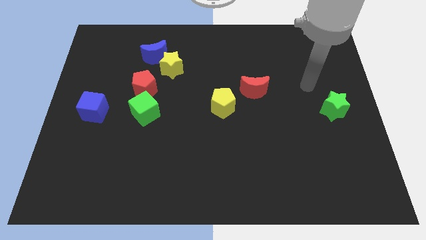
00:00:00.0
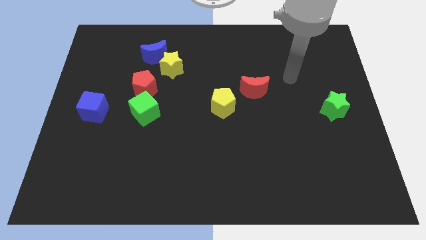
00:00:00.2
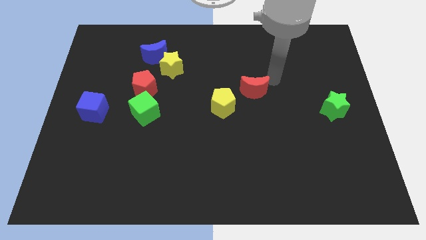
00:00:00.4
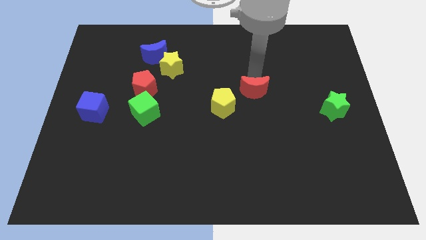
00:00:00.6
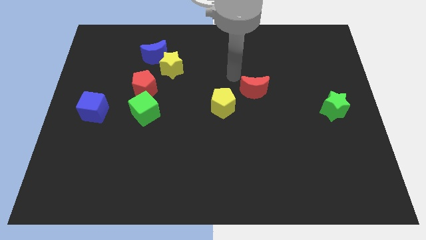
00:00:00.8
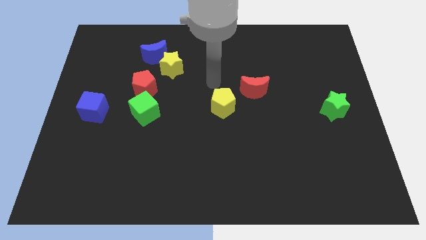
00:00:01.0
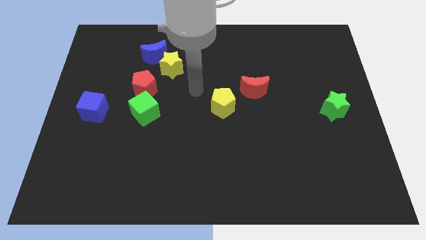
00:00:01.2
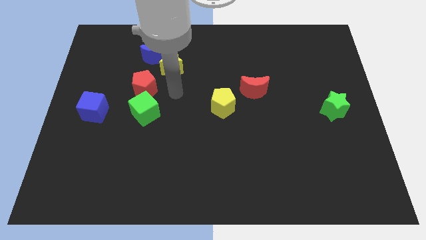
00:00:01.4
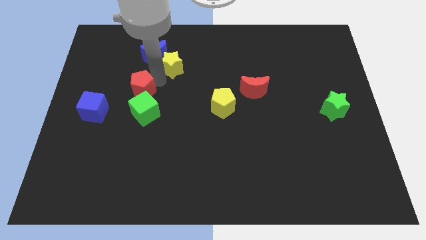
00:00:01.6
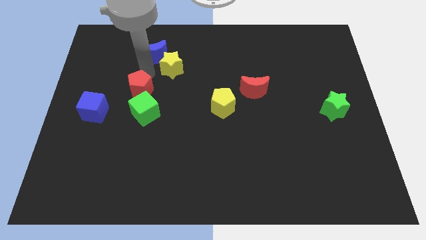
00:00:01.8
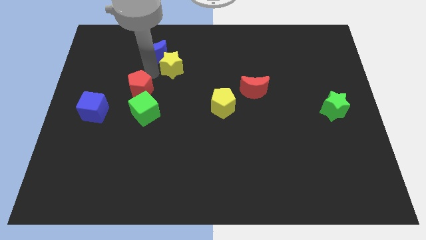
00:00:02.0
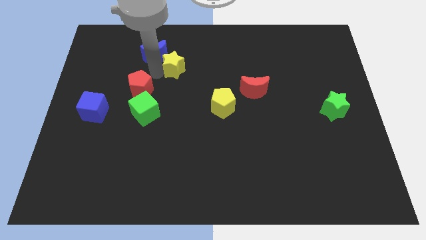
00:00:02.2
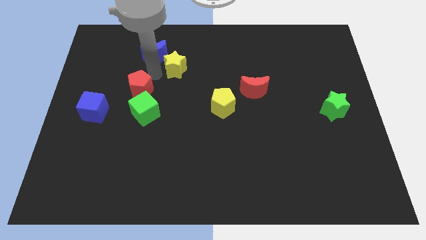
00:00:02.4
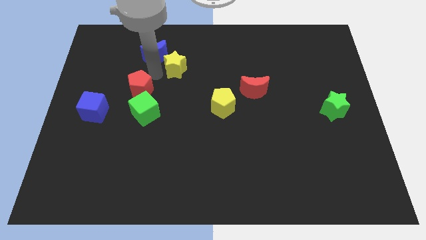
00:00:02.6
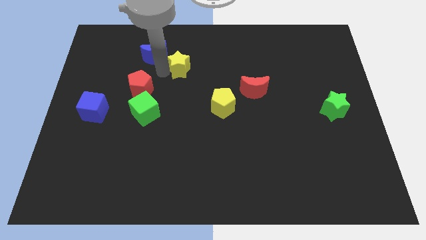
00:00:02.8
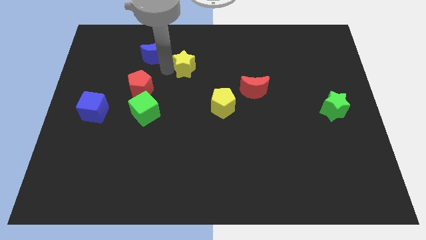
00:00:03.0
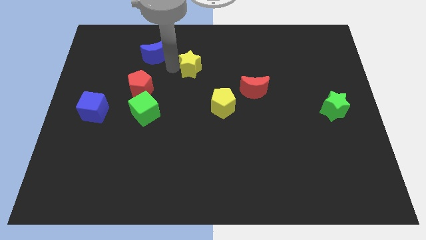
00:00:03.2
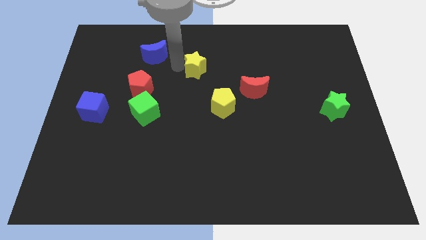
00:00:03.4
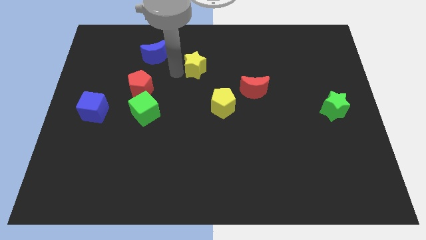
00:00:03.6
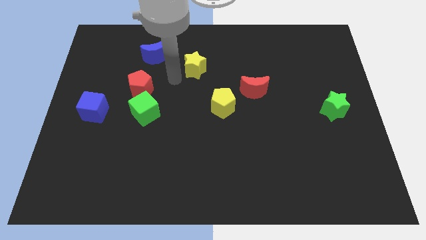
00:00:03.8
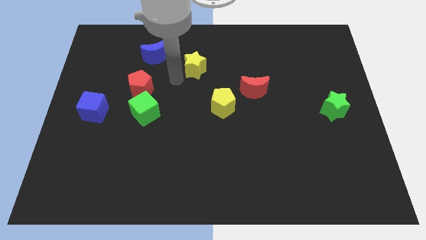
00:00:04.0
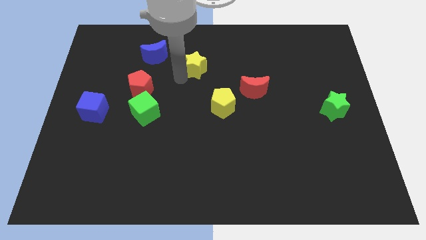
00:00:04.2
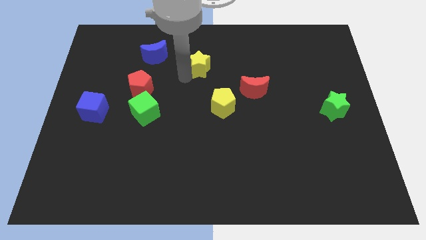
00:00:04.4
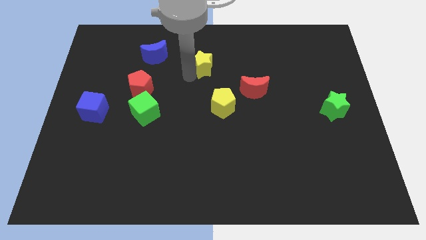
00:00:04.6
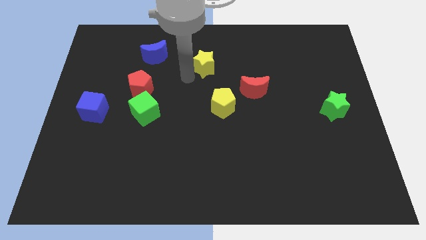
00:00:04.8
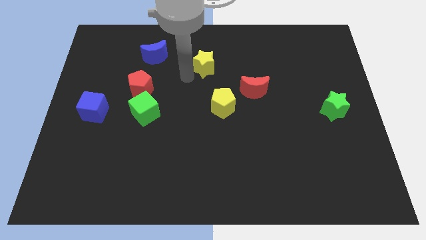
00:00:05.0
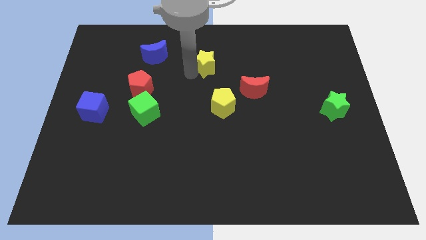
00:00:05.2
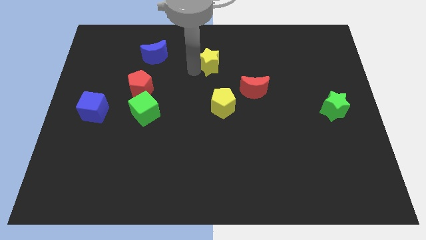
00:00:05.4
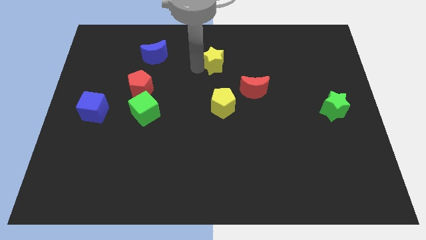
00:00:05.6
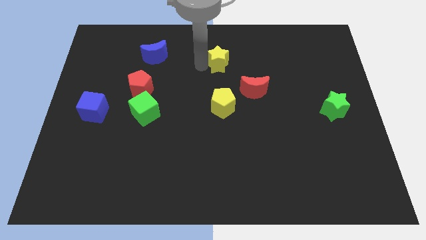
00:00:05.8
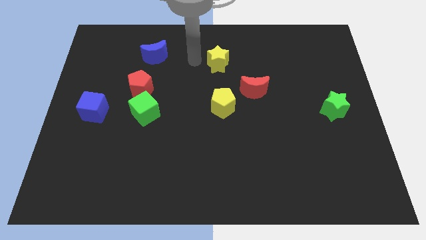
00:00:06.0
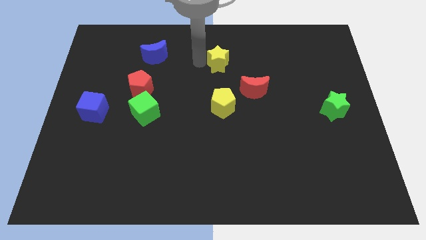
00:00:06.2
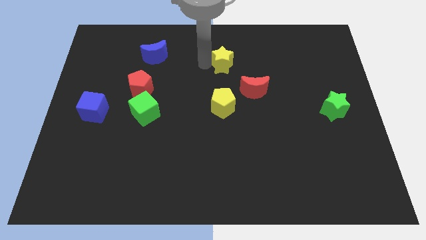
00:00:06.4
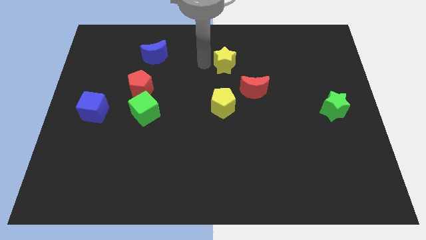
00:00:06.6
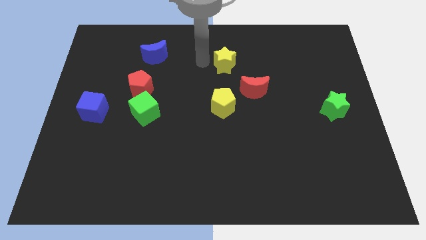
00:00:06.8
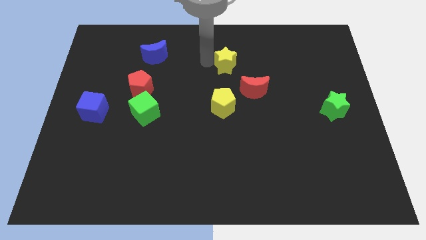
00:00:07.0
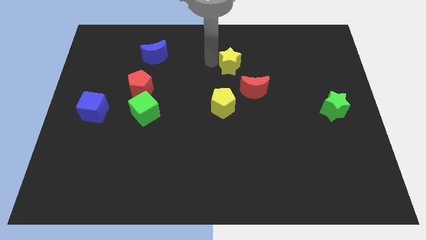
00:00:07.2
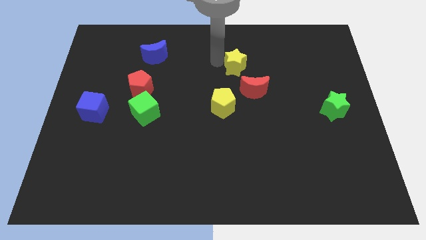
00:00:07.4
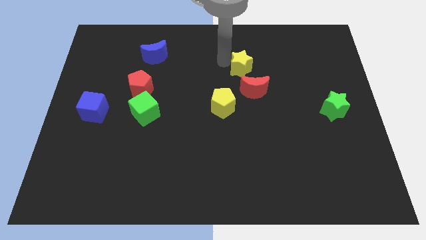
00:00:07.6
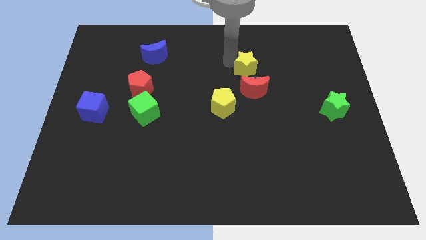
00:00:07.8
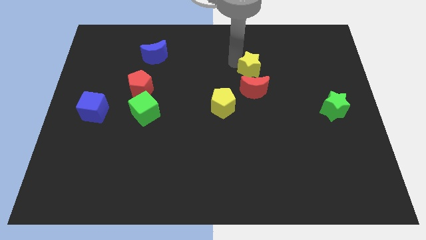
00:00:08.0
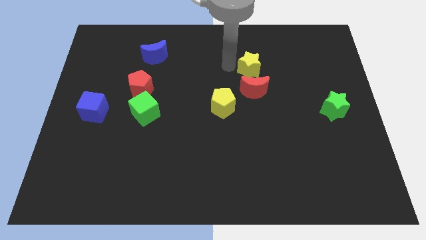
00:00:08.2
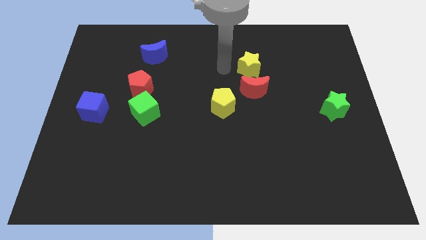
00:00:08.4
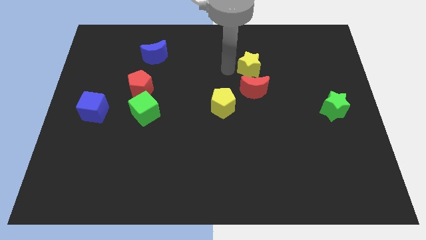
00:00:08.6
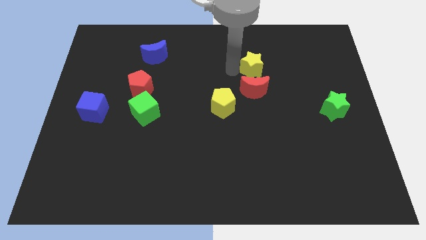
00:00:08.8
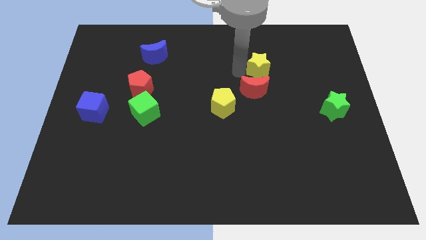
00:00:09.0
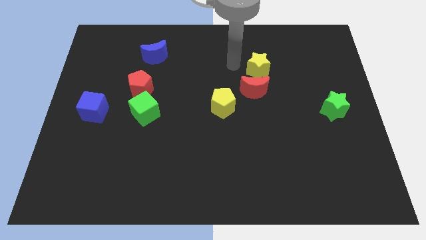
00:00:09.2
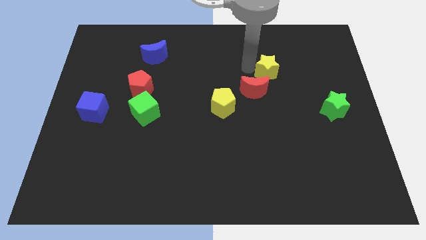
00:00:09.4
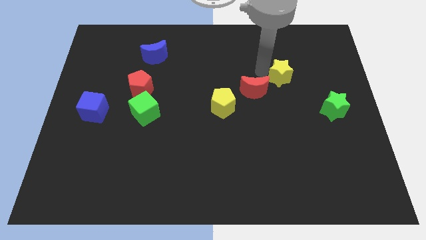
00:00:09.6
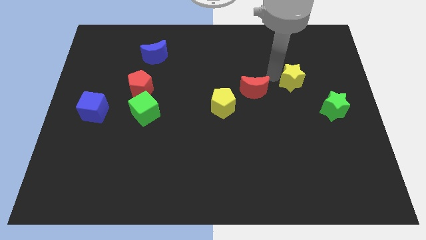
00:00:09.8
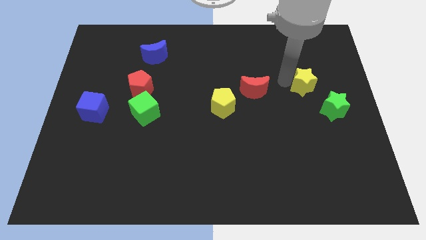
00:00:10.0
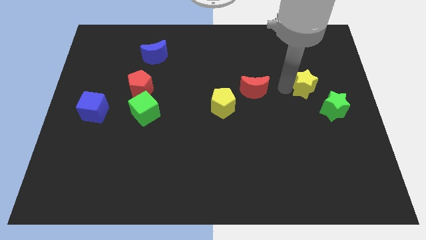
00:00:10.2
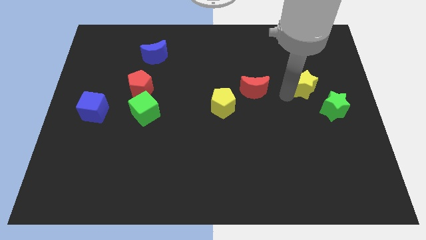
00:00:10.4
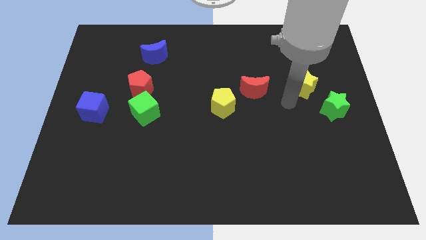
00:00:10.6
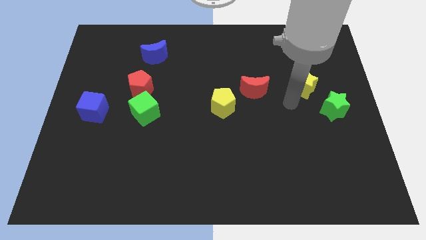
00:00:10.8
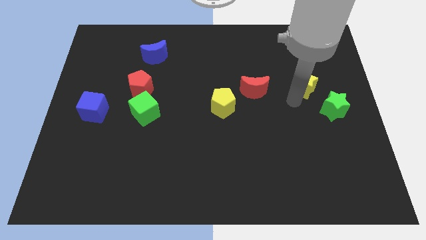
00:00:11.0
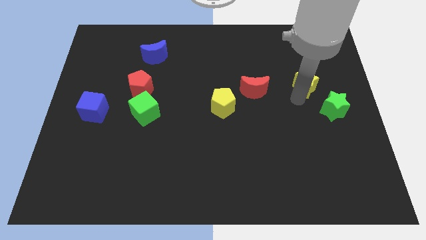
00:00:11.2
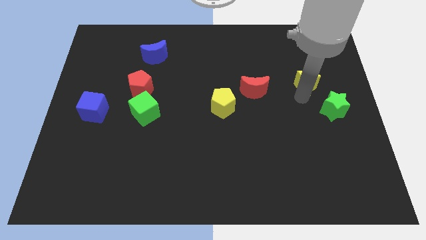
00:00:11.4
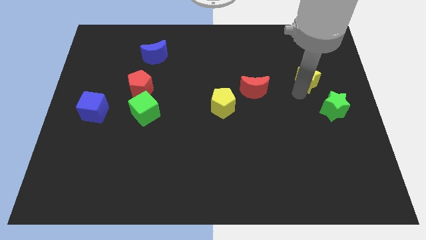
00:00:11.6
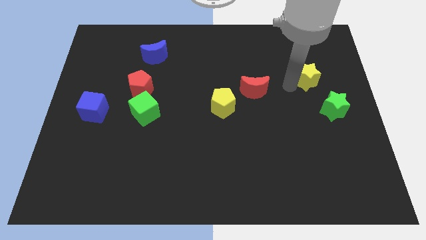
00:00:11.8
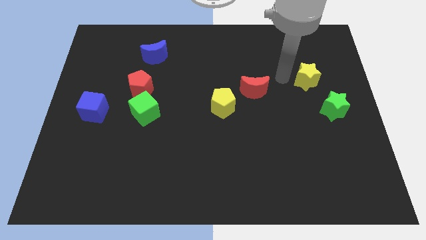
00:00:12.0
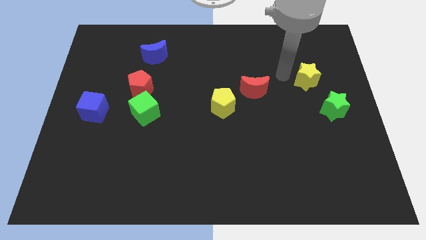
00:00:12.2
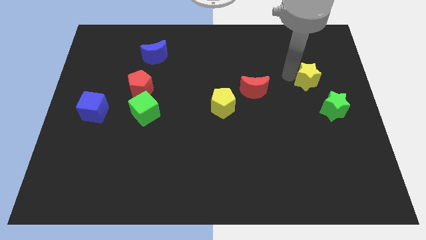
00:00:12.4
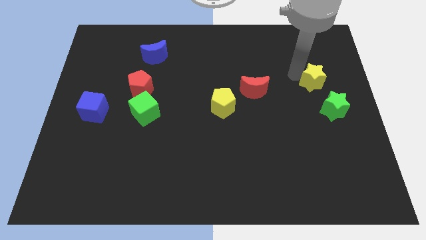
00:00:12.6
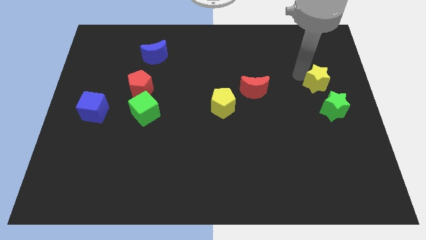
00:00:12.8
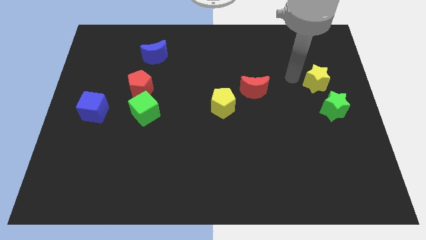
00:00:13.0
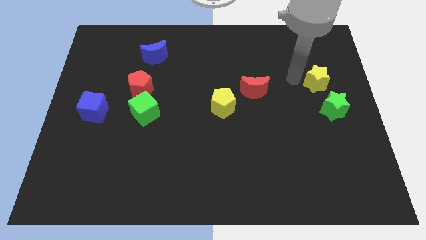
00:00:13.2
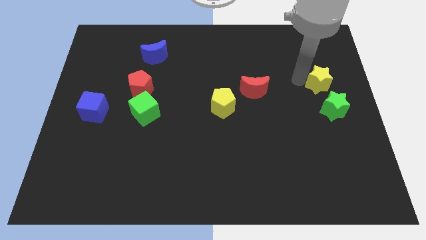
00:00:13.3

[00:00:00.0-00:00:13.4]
slide the yellow star to the center right
